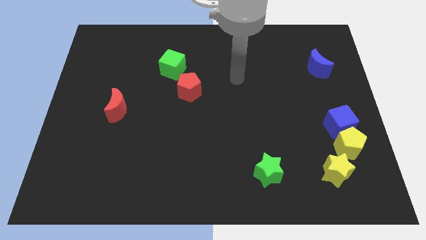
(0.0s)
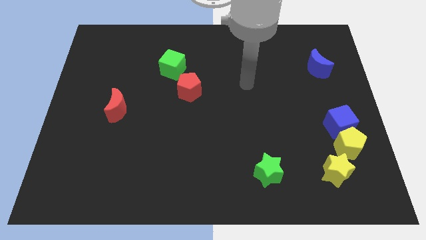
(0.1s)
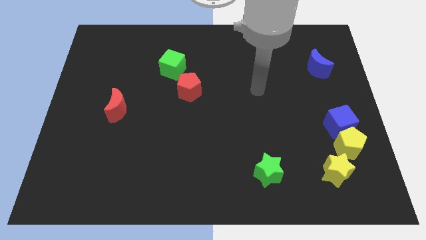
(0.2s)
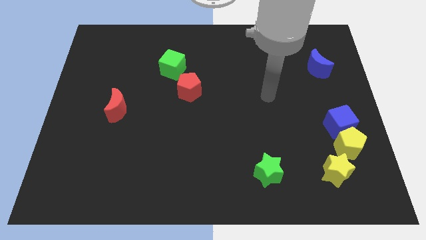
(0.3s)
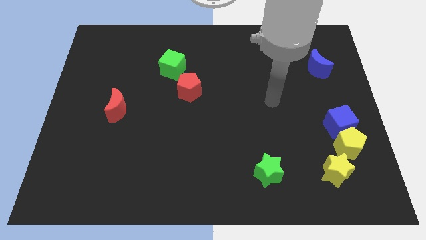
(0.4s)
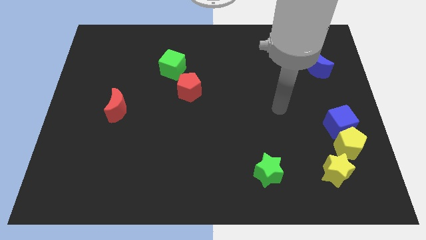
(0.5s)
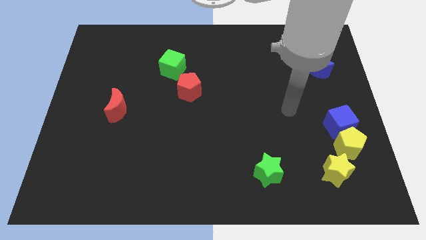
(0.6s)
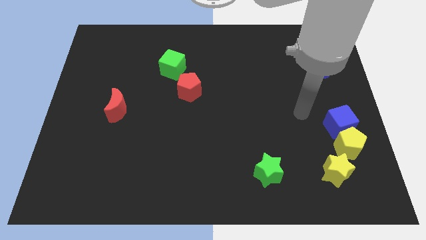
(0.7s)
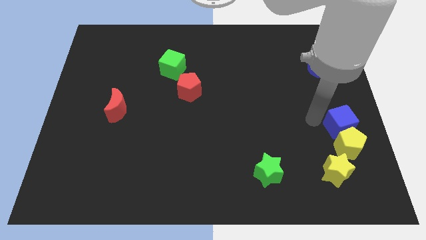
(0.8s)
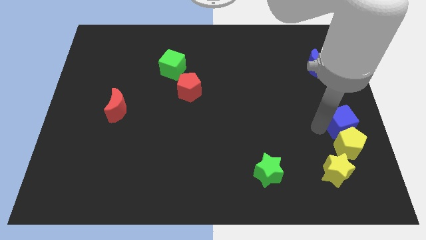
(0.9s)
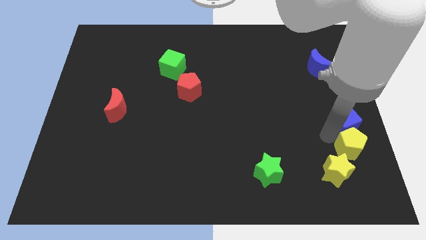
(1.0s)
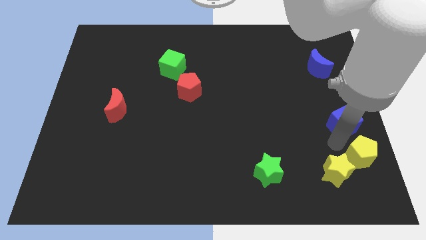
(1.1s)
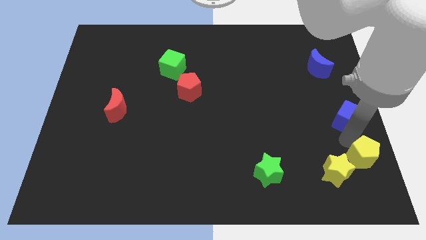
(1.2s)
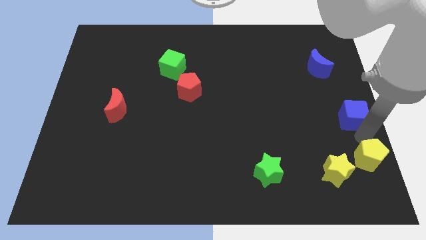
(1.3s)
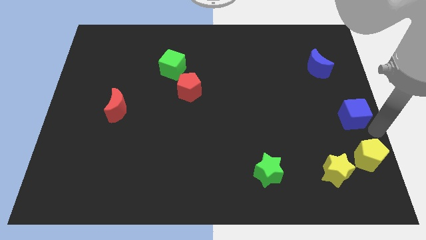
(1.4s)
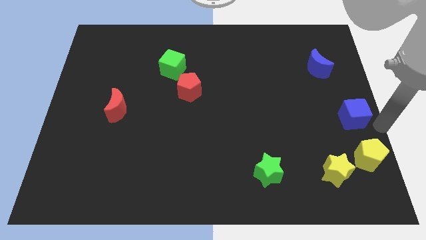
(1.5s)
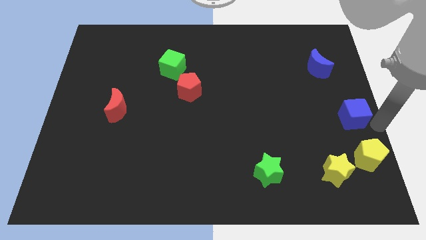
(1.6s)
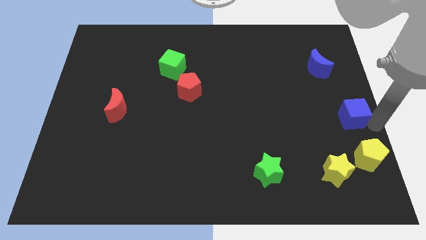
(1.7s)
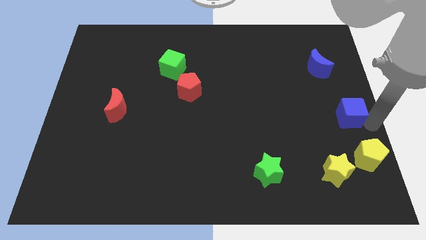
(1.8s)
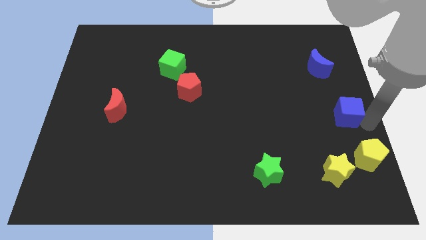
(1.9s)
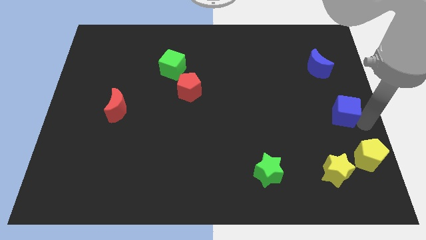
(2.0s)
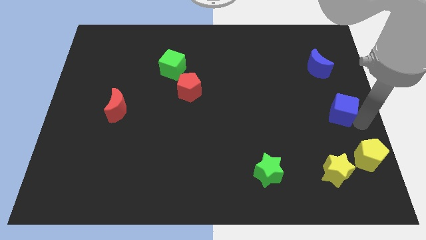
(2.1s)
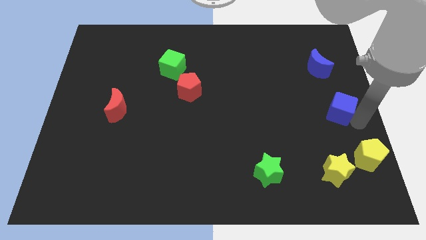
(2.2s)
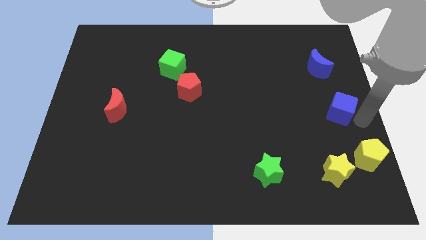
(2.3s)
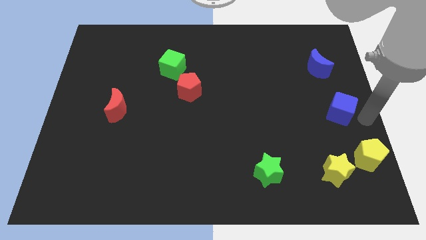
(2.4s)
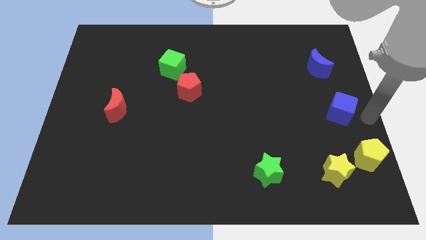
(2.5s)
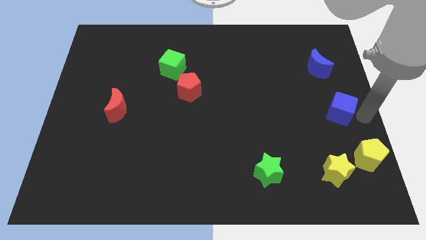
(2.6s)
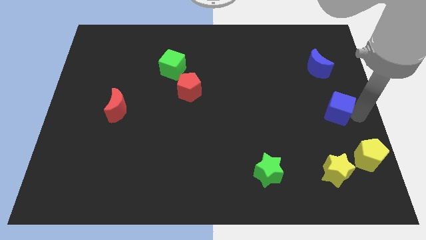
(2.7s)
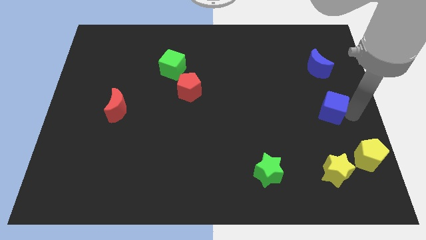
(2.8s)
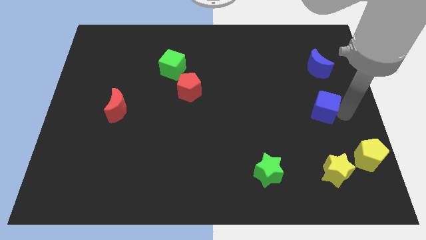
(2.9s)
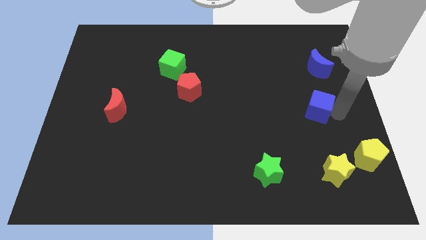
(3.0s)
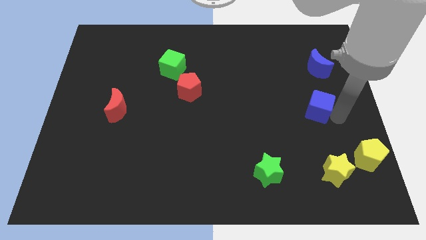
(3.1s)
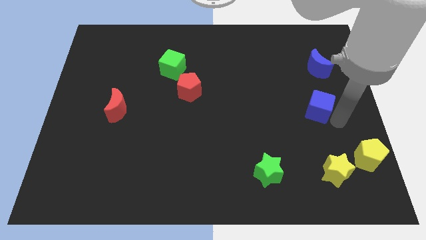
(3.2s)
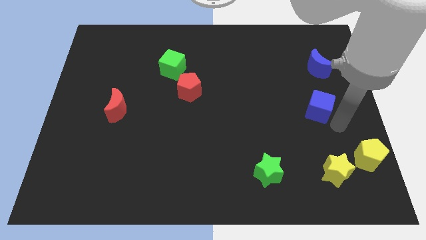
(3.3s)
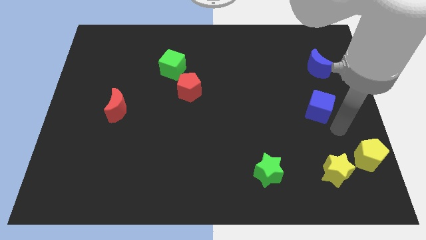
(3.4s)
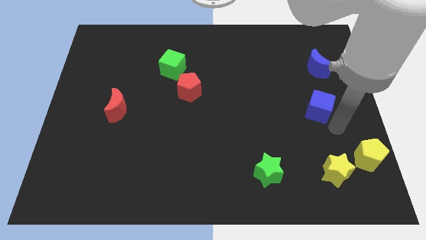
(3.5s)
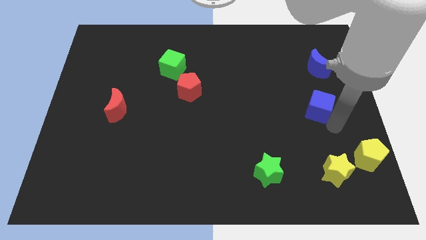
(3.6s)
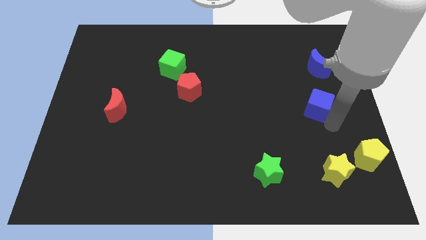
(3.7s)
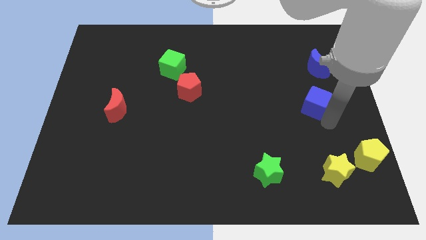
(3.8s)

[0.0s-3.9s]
push the blue cube a bit upwards and then left

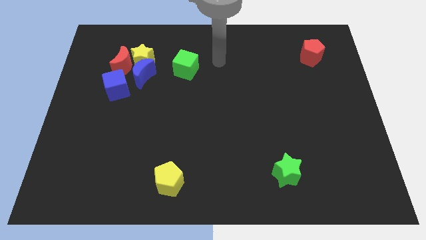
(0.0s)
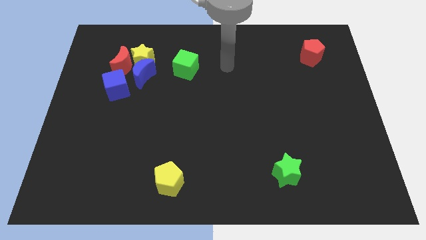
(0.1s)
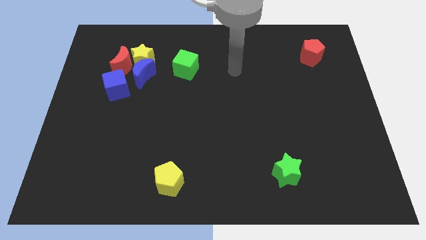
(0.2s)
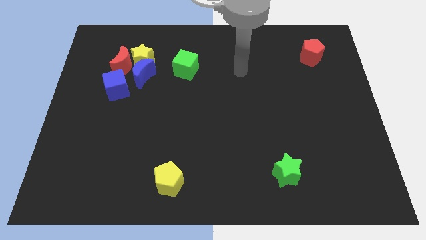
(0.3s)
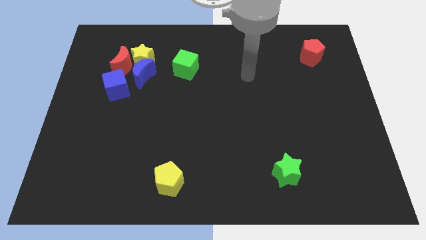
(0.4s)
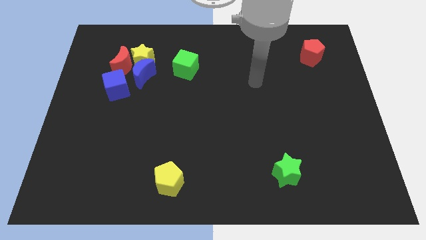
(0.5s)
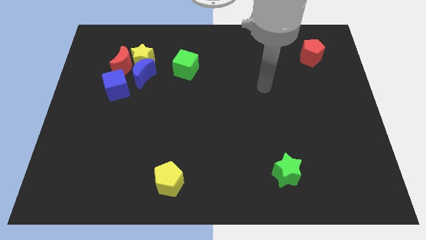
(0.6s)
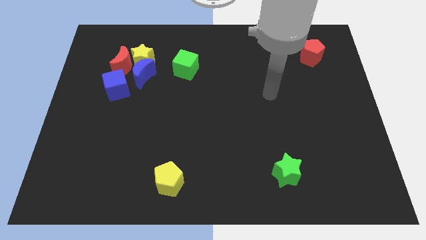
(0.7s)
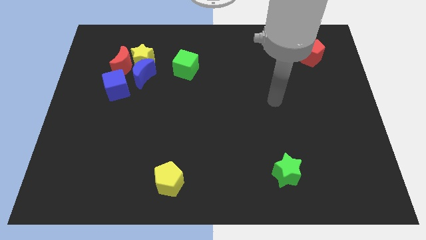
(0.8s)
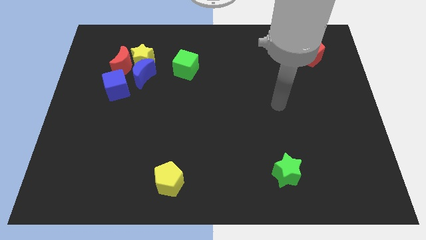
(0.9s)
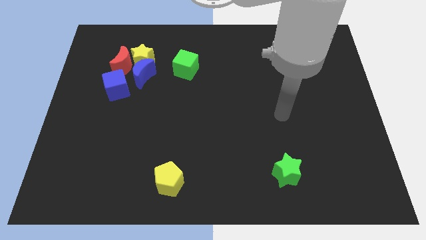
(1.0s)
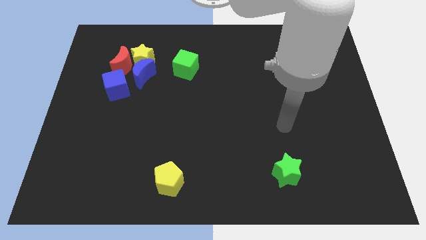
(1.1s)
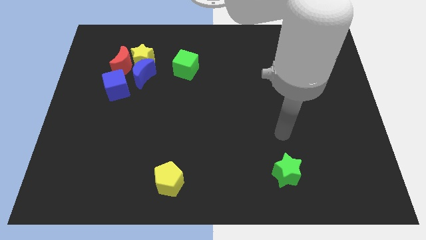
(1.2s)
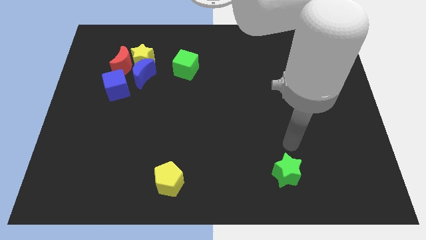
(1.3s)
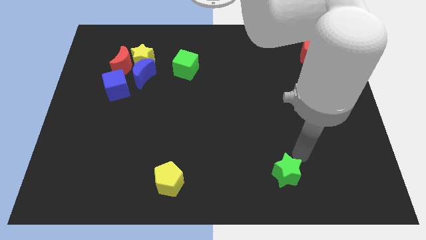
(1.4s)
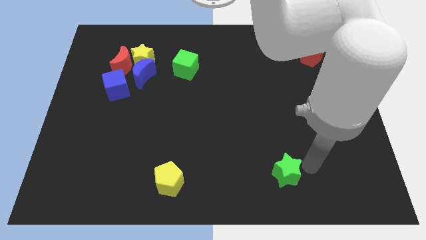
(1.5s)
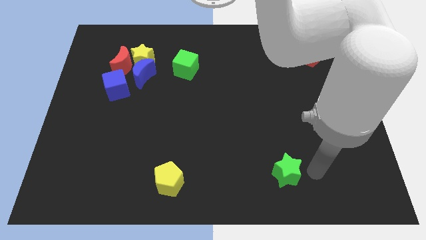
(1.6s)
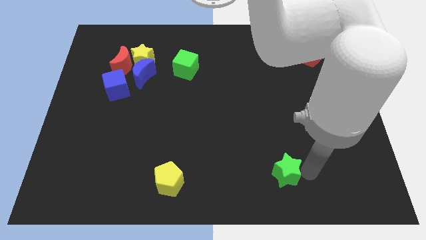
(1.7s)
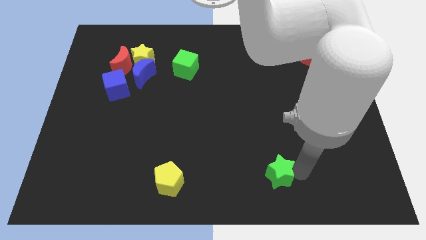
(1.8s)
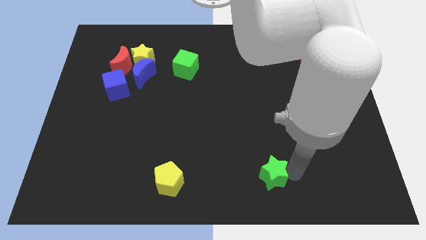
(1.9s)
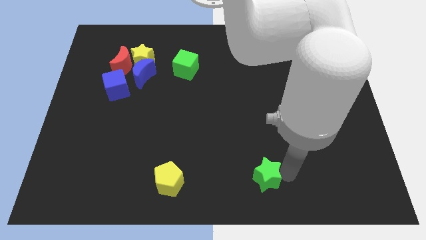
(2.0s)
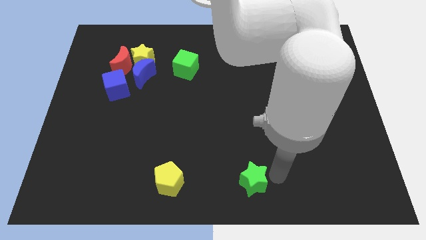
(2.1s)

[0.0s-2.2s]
slightly push the green star left

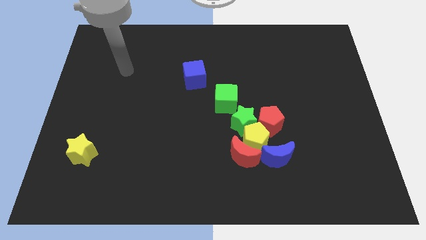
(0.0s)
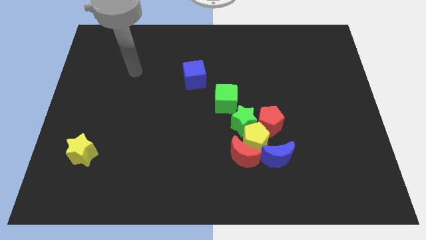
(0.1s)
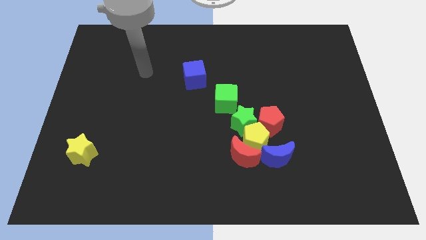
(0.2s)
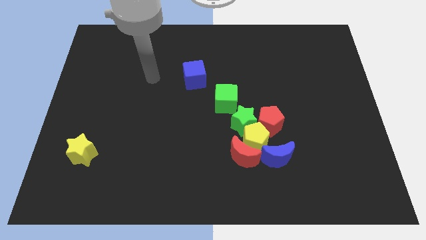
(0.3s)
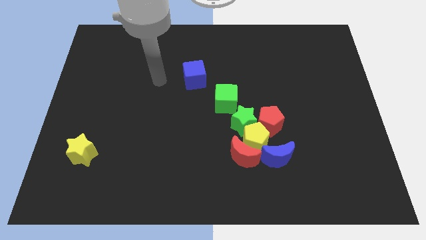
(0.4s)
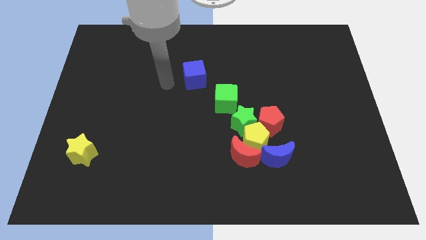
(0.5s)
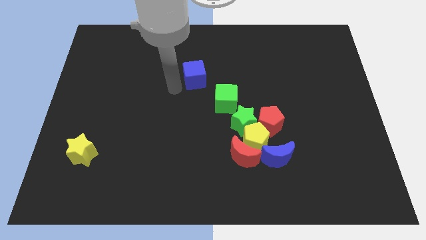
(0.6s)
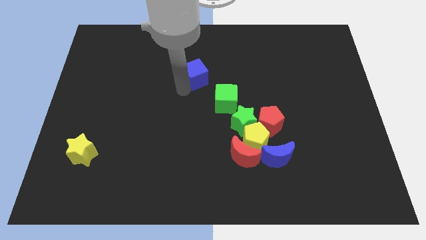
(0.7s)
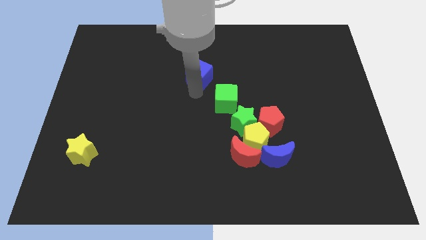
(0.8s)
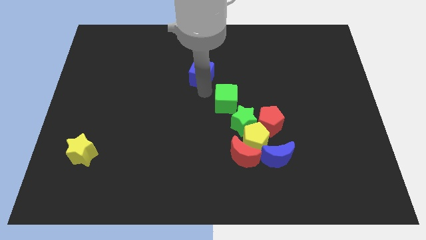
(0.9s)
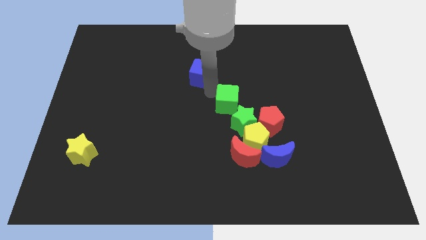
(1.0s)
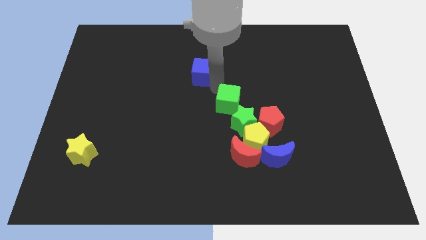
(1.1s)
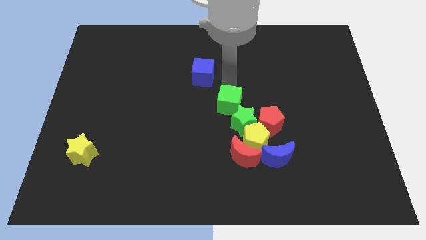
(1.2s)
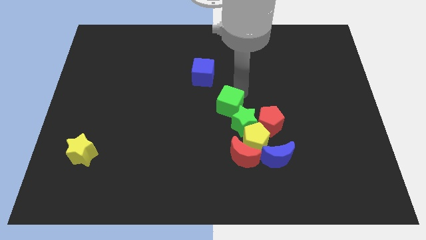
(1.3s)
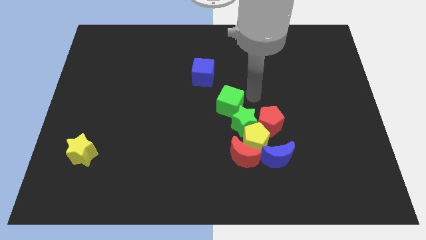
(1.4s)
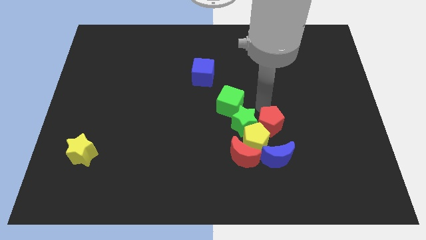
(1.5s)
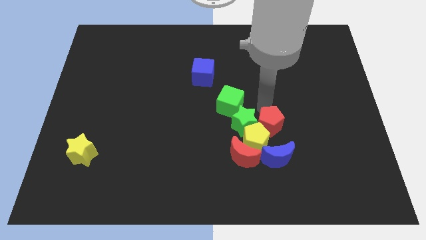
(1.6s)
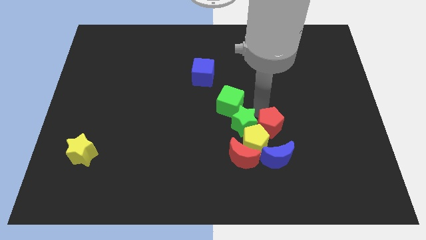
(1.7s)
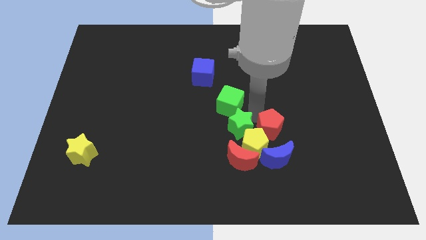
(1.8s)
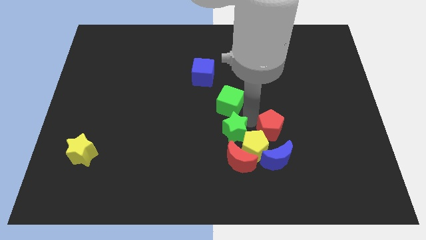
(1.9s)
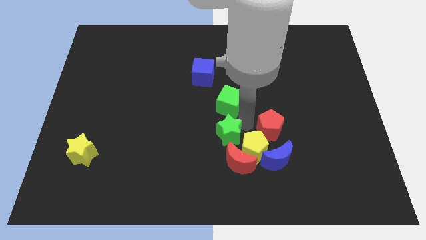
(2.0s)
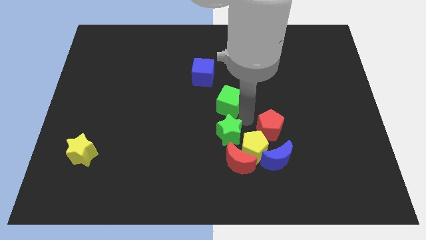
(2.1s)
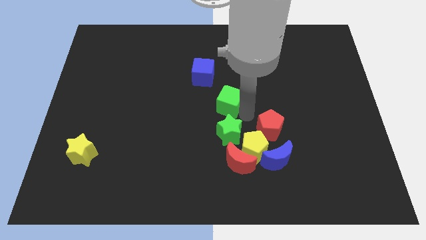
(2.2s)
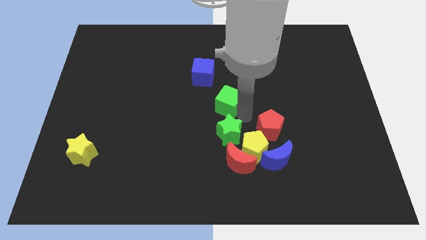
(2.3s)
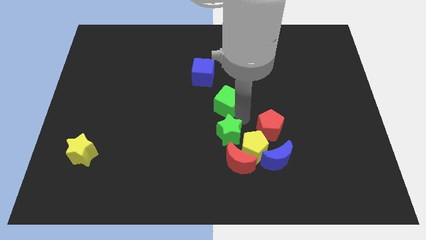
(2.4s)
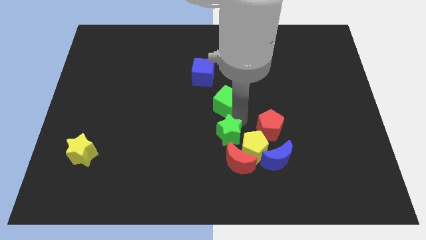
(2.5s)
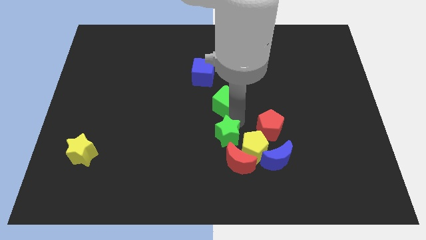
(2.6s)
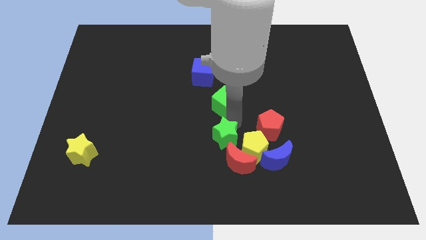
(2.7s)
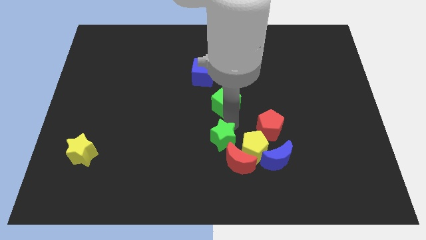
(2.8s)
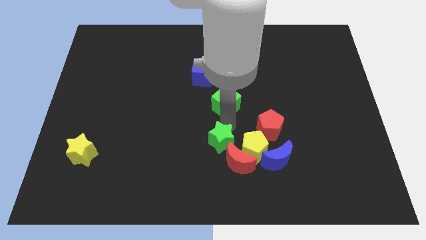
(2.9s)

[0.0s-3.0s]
slide the green star downwards and left diagonally slightly
